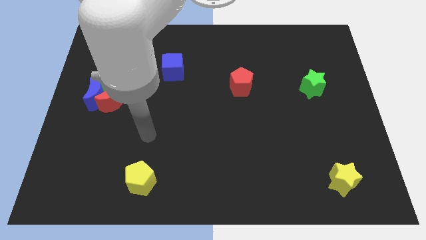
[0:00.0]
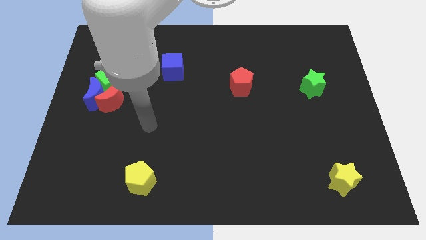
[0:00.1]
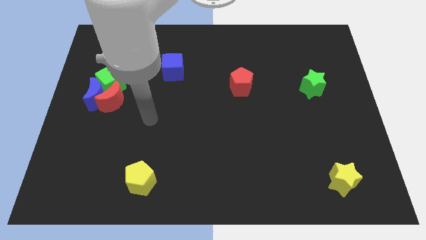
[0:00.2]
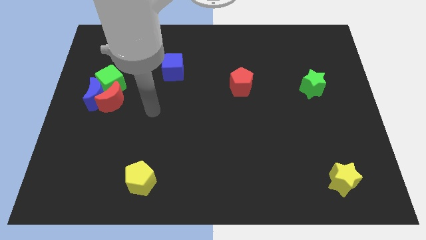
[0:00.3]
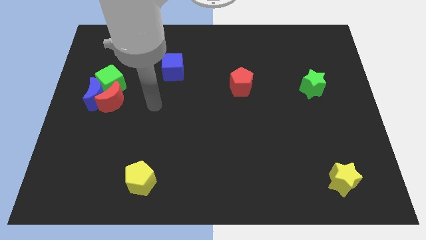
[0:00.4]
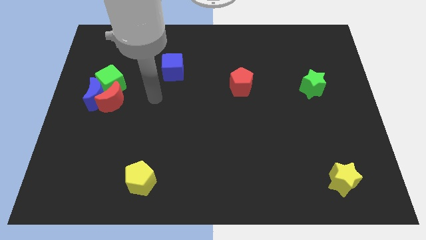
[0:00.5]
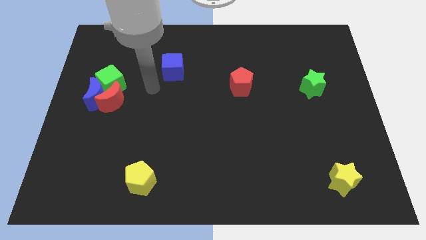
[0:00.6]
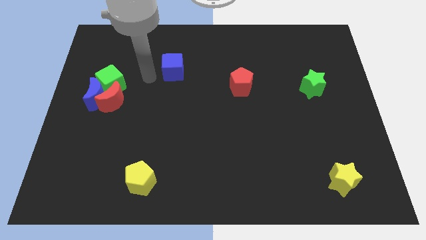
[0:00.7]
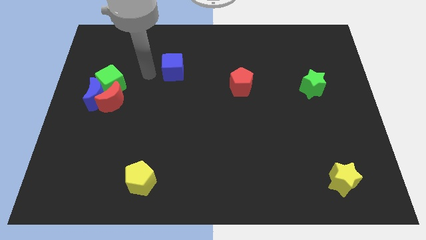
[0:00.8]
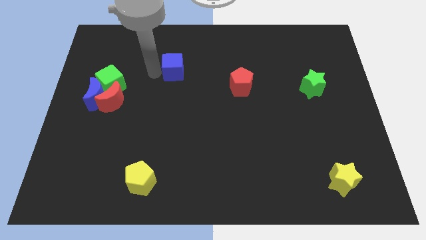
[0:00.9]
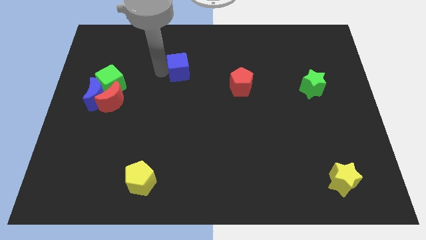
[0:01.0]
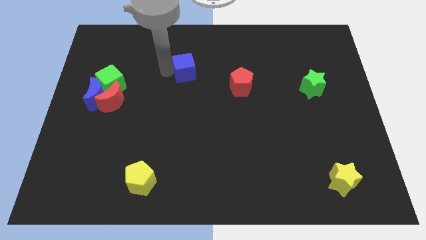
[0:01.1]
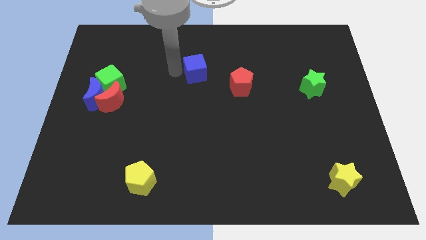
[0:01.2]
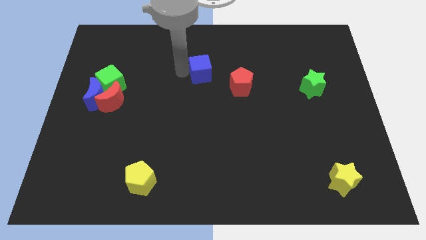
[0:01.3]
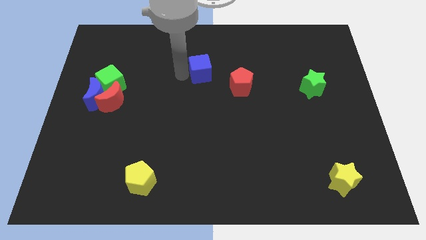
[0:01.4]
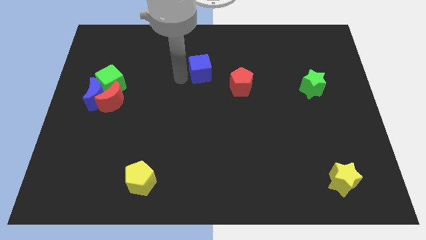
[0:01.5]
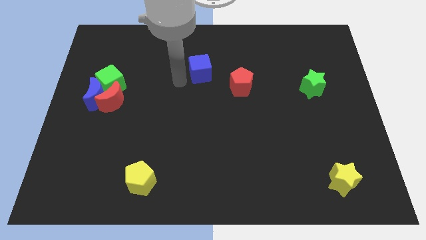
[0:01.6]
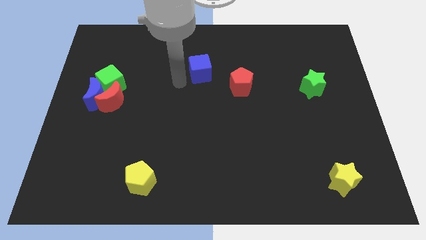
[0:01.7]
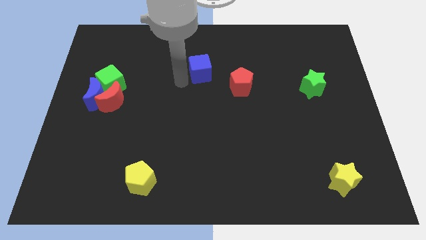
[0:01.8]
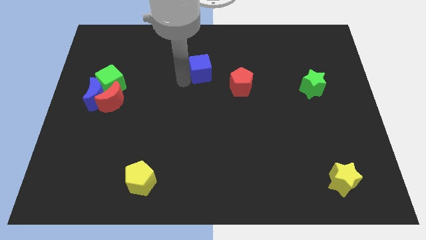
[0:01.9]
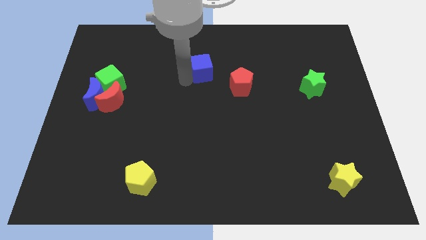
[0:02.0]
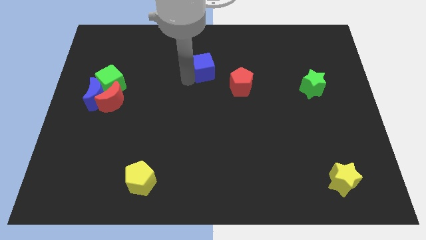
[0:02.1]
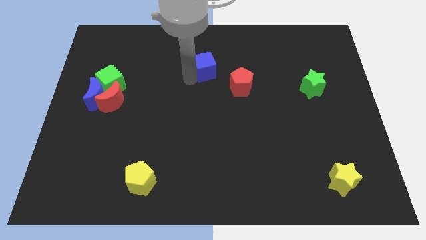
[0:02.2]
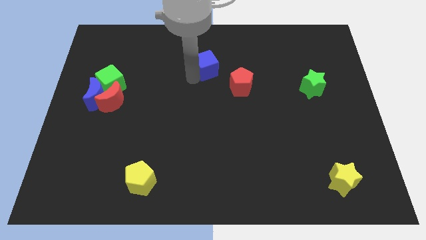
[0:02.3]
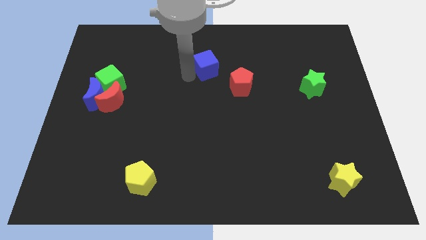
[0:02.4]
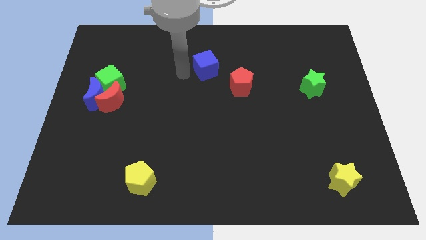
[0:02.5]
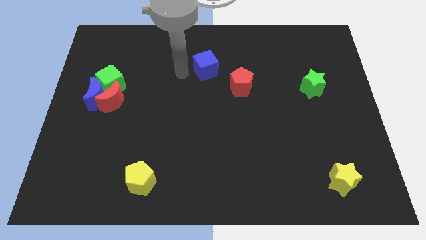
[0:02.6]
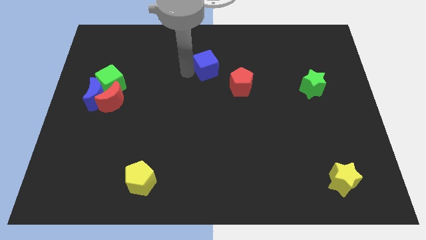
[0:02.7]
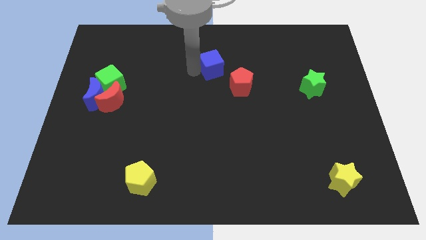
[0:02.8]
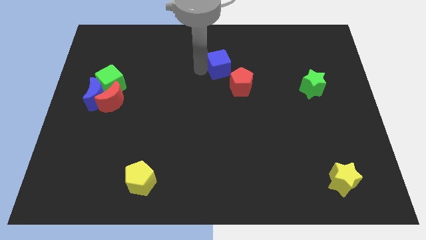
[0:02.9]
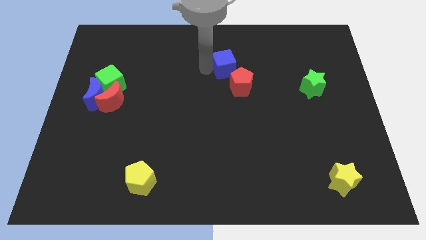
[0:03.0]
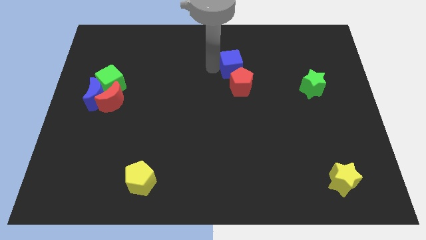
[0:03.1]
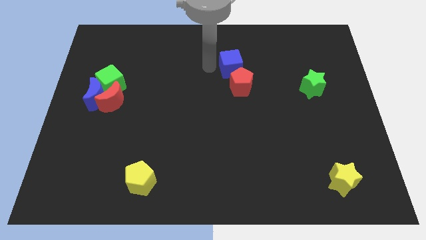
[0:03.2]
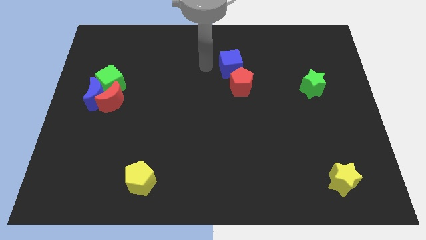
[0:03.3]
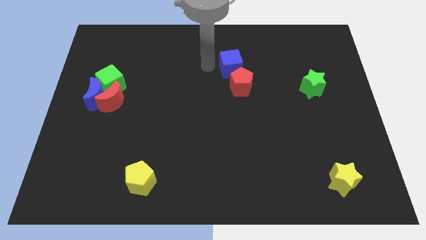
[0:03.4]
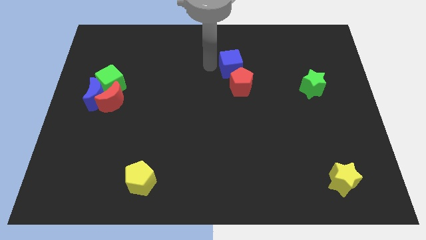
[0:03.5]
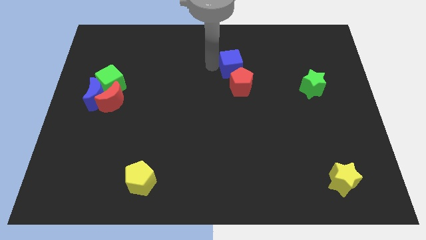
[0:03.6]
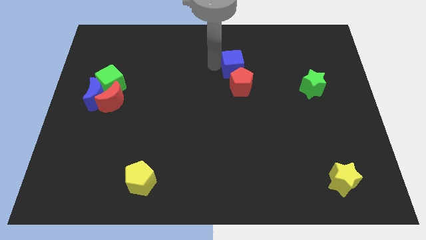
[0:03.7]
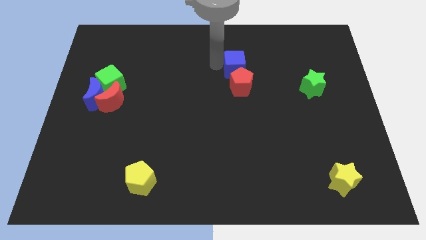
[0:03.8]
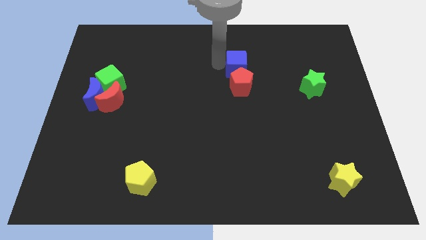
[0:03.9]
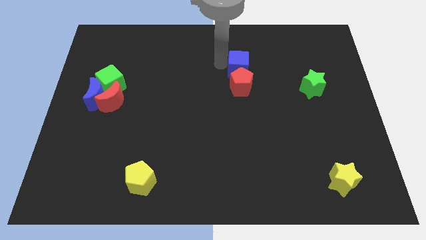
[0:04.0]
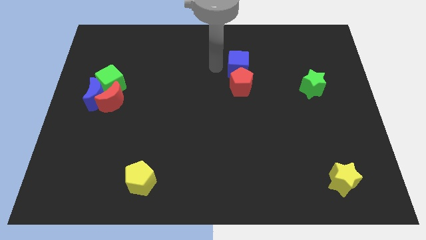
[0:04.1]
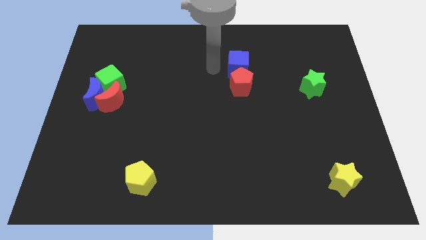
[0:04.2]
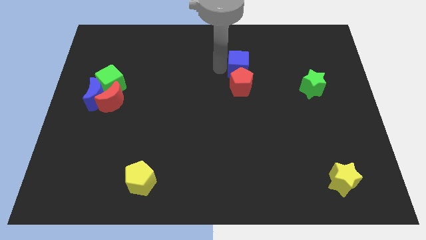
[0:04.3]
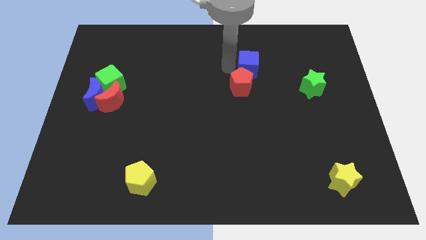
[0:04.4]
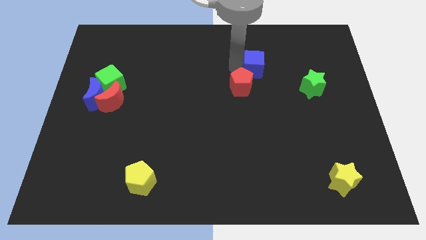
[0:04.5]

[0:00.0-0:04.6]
push the blue cube right

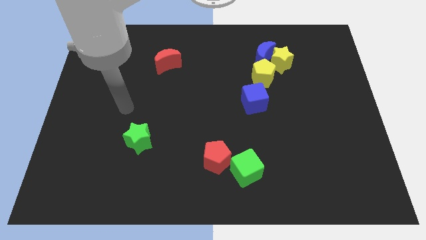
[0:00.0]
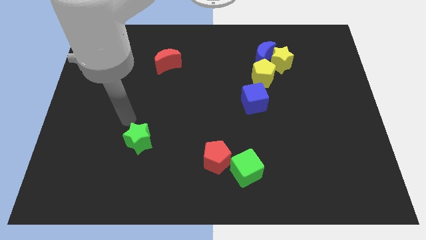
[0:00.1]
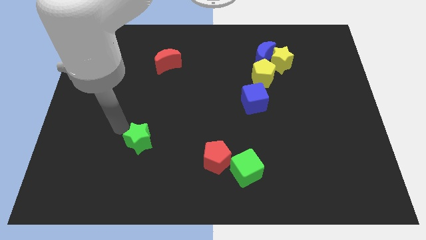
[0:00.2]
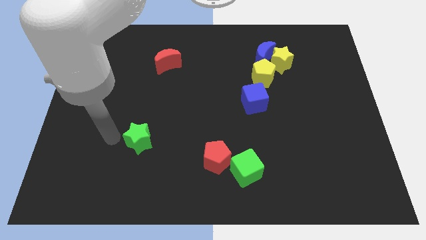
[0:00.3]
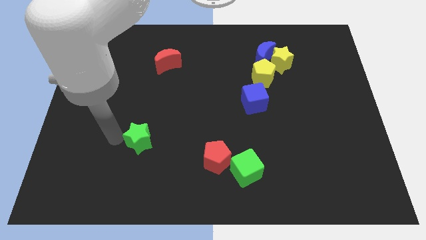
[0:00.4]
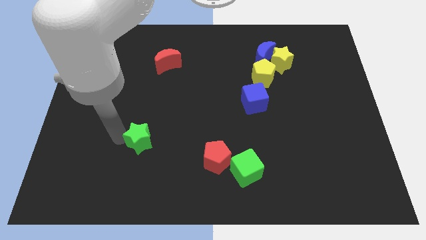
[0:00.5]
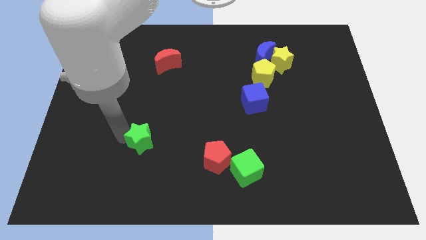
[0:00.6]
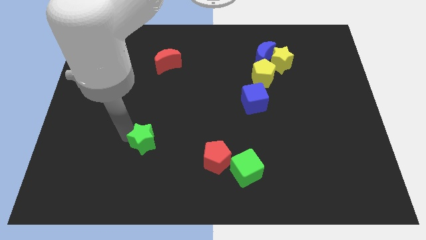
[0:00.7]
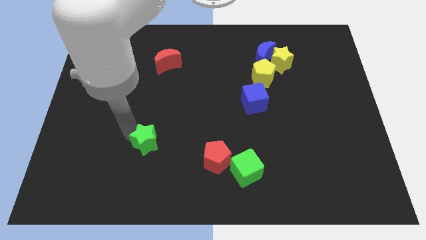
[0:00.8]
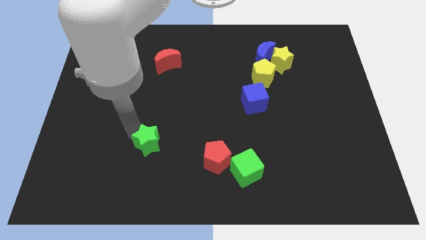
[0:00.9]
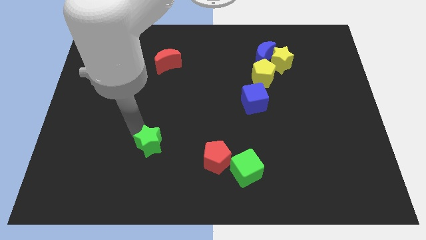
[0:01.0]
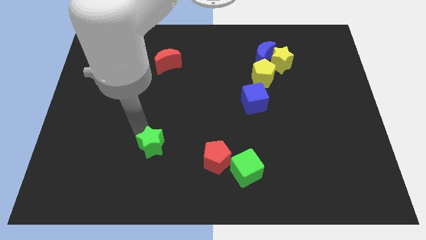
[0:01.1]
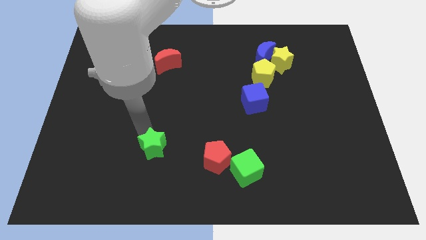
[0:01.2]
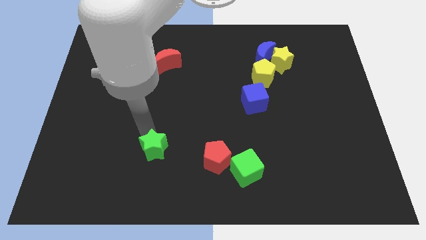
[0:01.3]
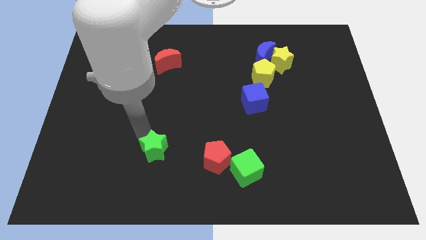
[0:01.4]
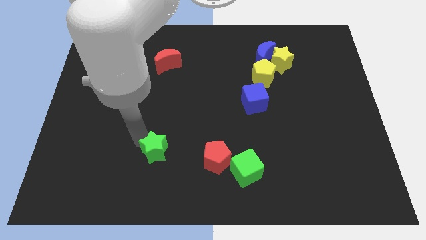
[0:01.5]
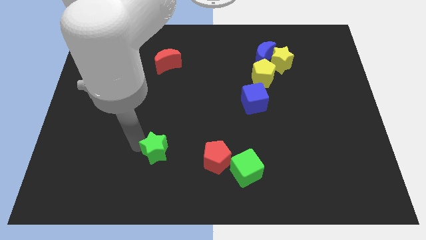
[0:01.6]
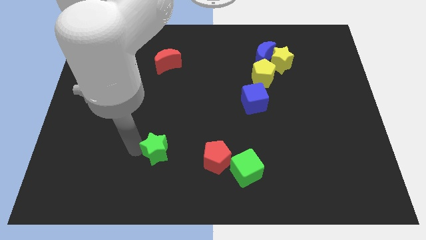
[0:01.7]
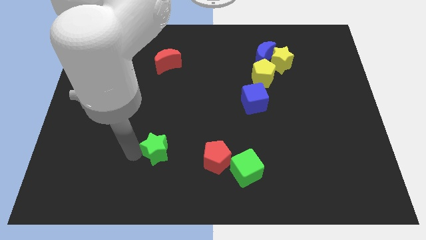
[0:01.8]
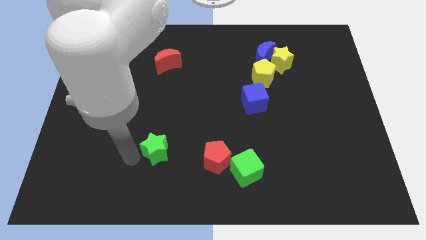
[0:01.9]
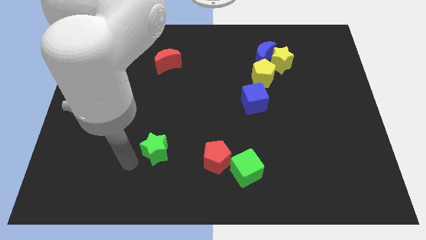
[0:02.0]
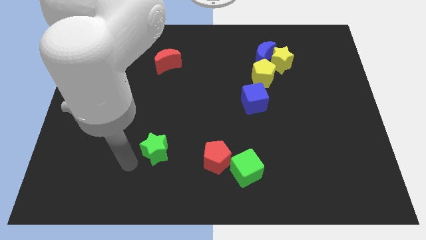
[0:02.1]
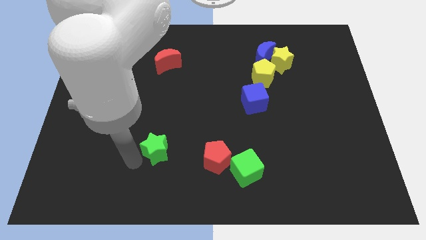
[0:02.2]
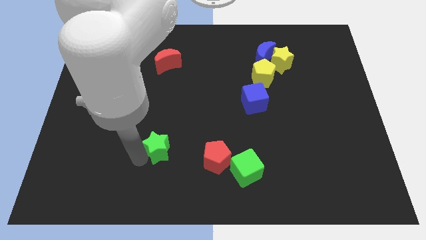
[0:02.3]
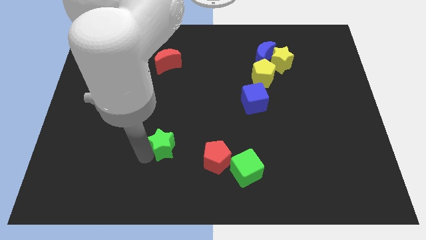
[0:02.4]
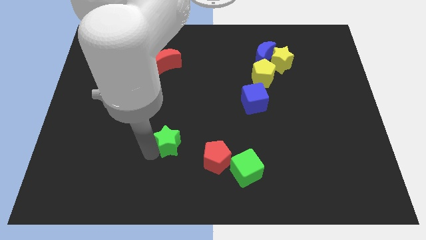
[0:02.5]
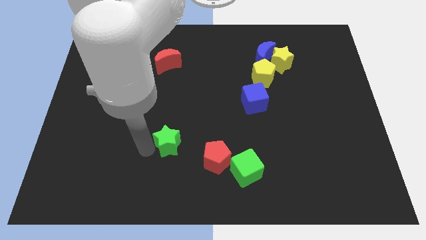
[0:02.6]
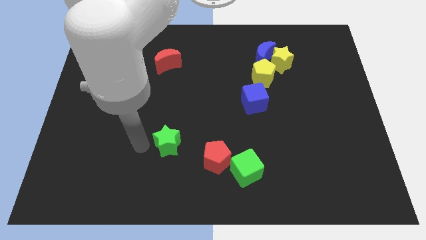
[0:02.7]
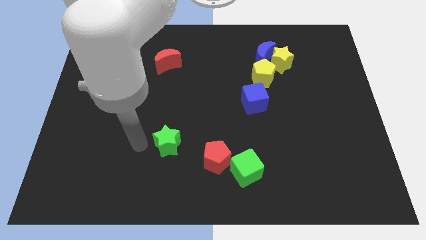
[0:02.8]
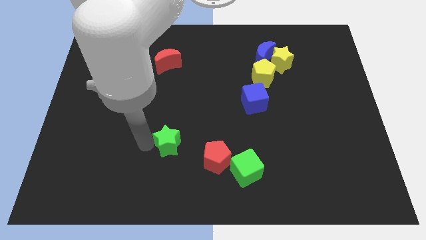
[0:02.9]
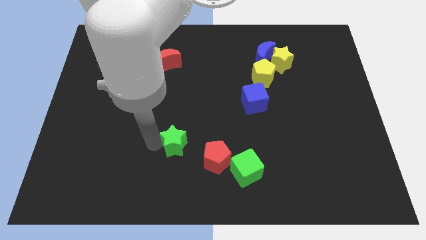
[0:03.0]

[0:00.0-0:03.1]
slightly push the green star right
